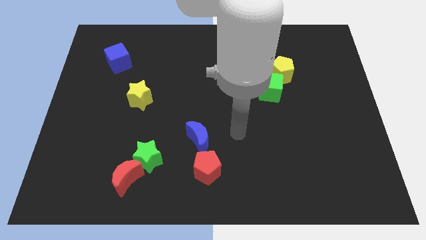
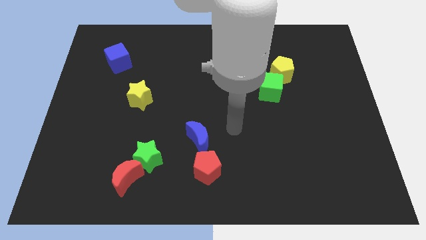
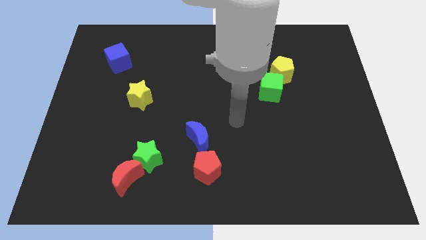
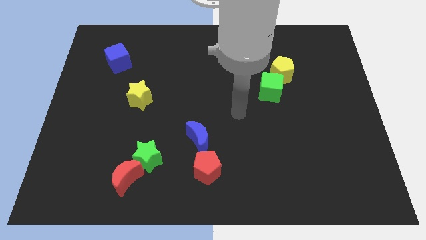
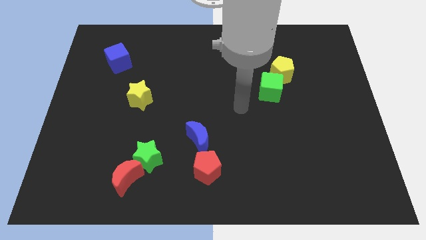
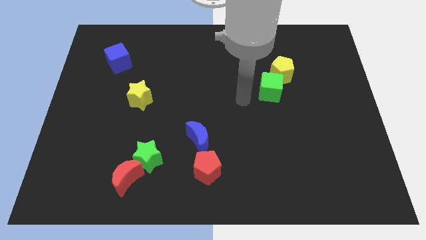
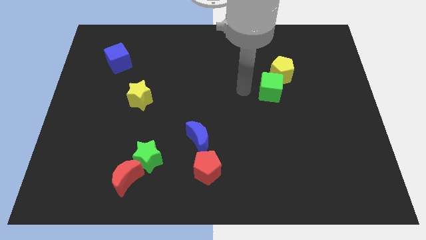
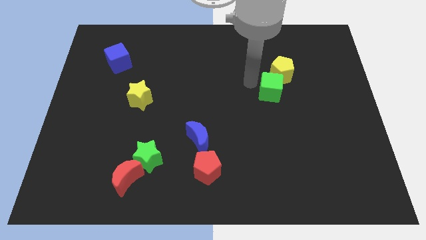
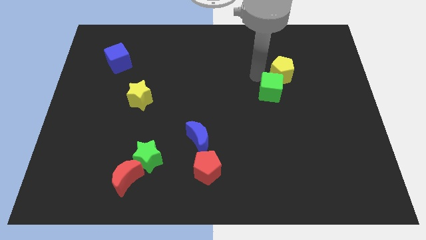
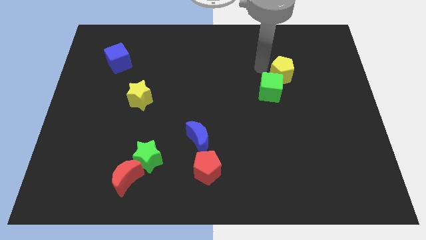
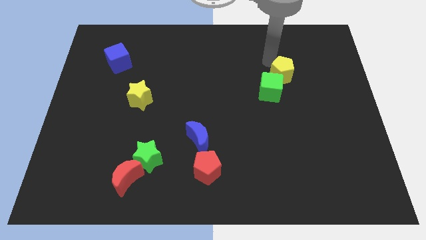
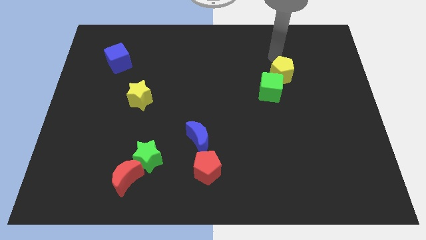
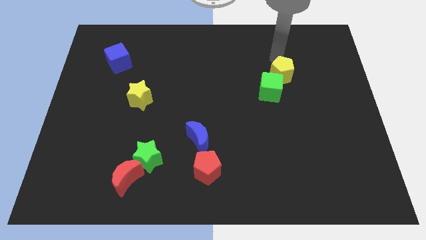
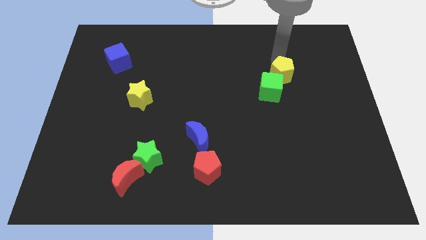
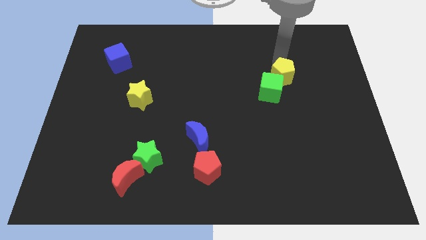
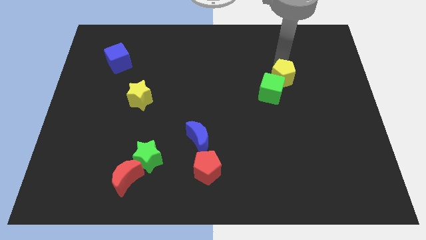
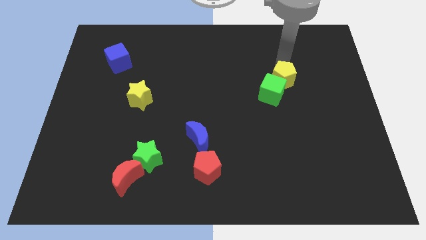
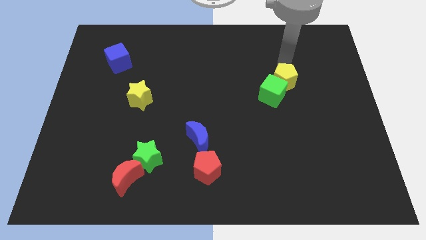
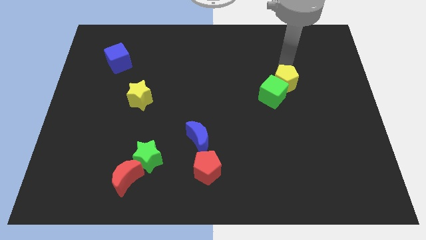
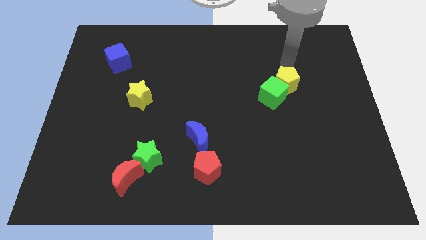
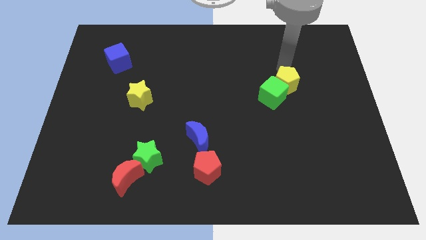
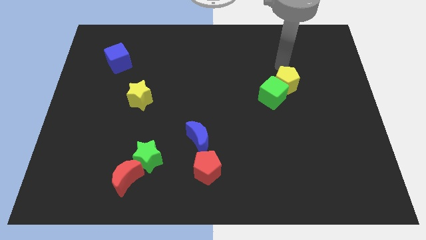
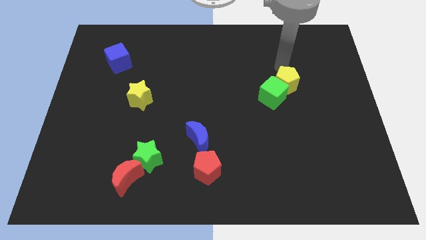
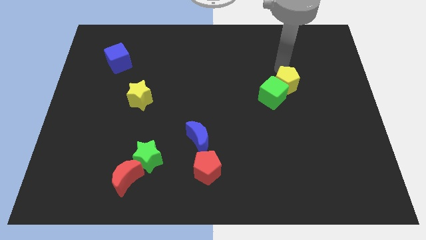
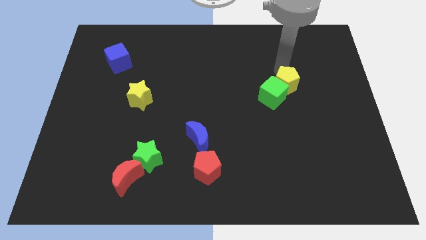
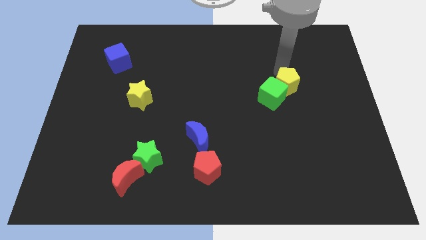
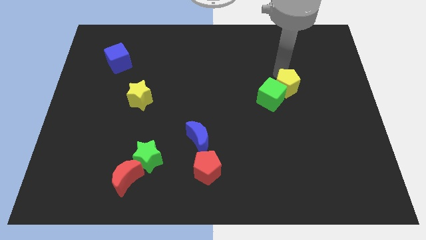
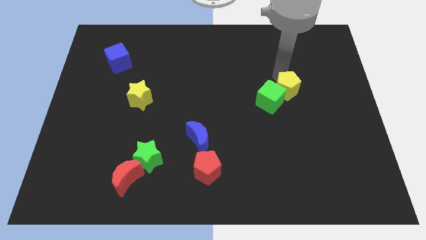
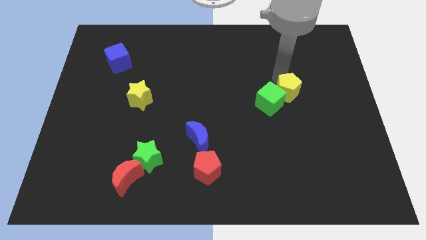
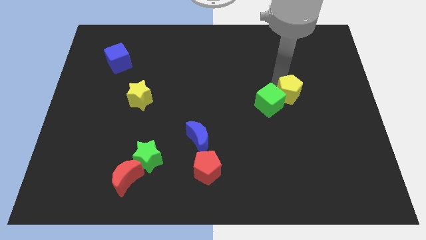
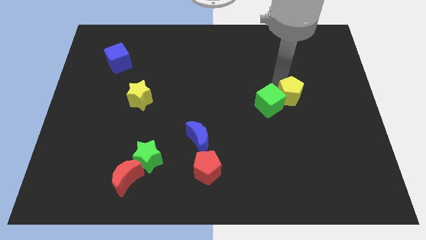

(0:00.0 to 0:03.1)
push the yellow pentagon somewhat down

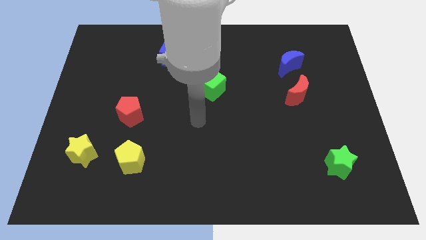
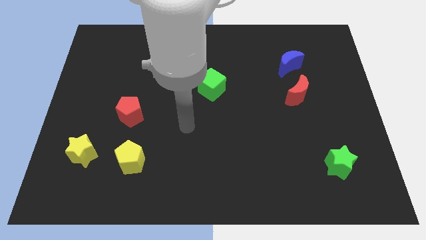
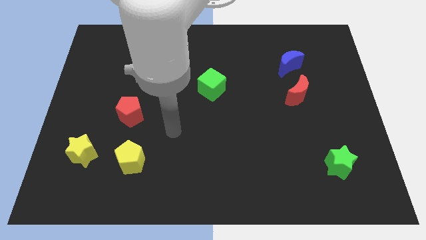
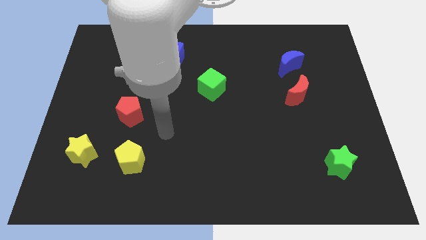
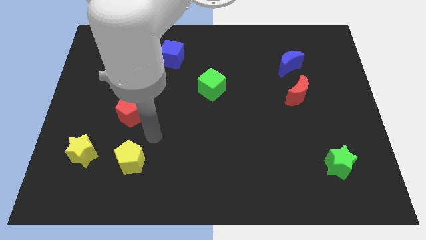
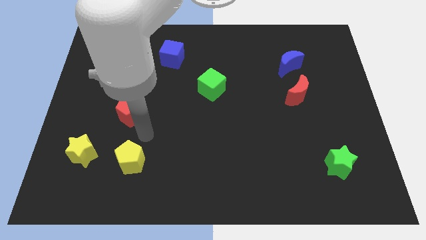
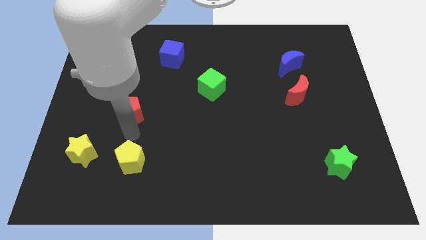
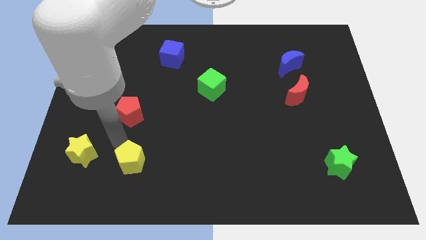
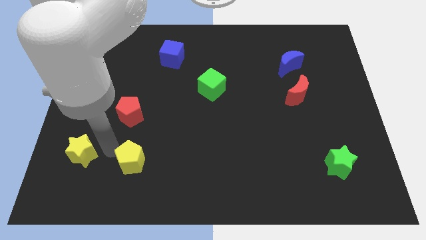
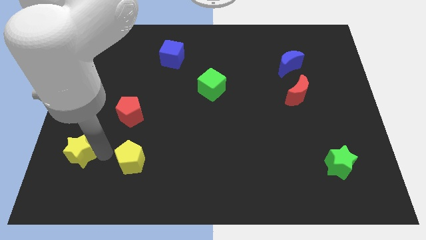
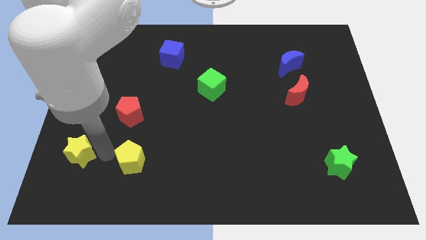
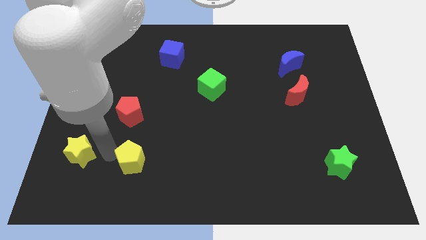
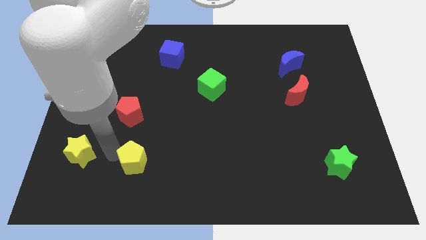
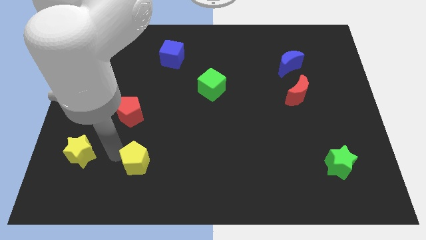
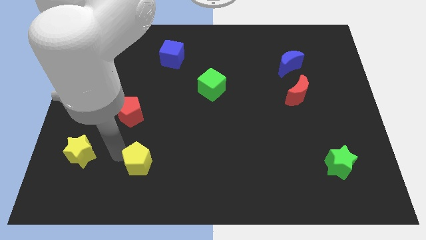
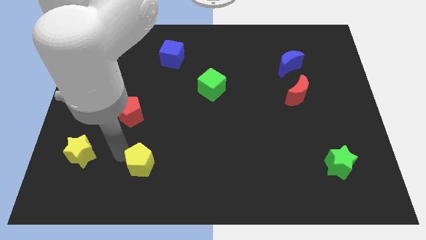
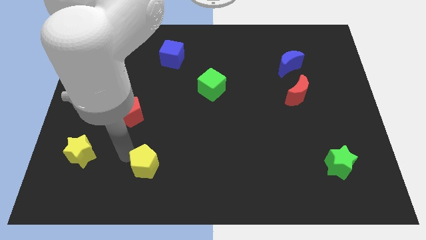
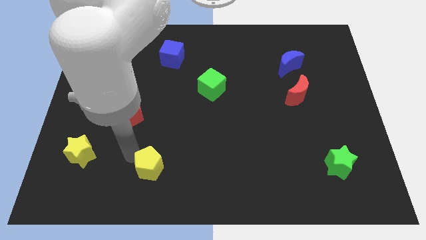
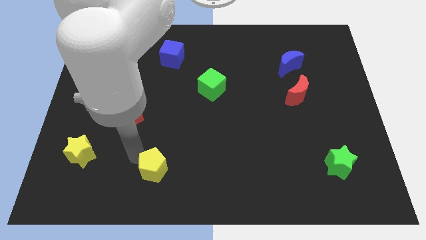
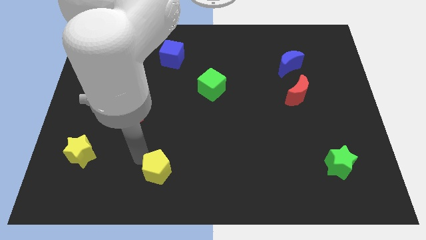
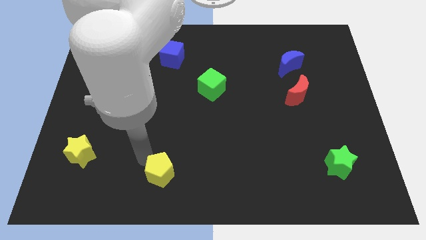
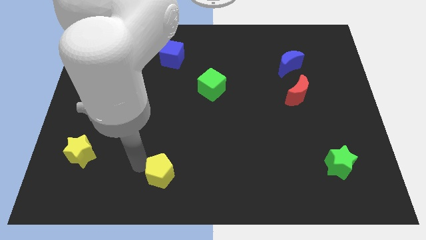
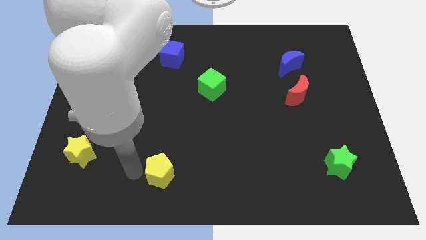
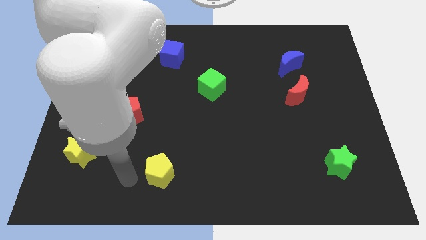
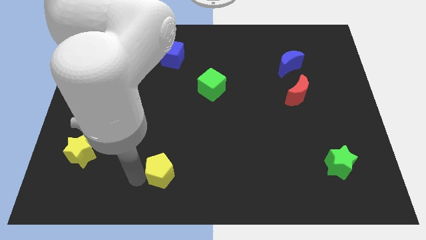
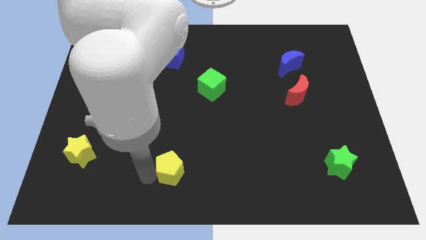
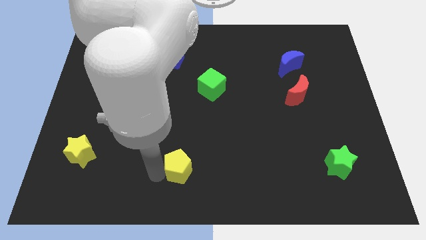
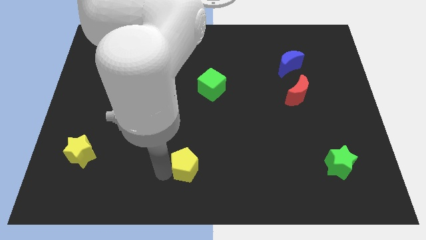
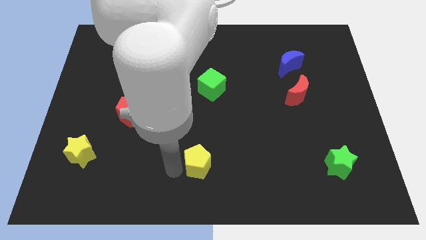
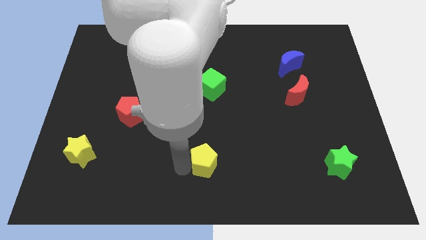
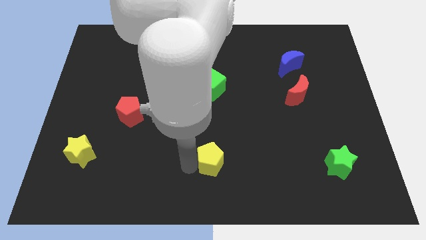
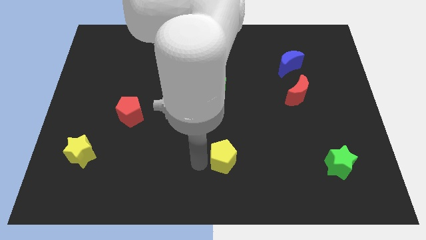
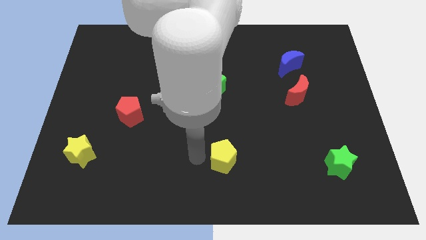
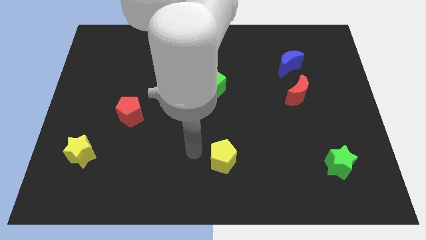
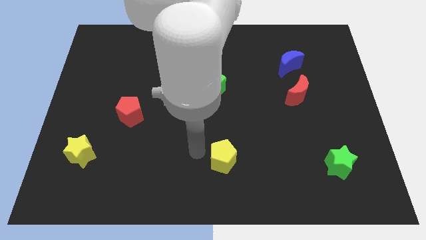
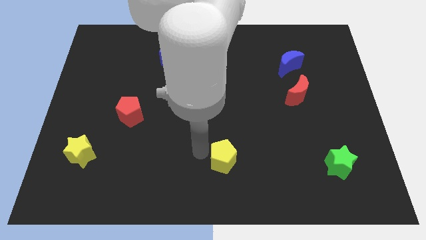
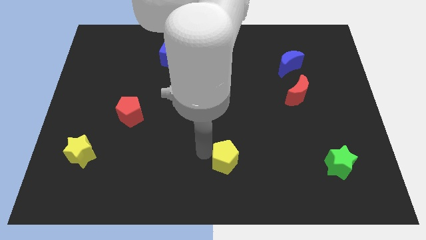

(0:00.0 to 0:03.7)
push the yellow pentagon to the right

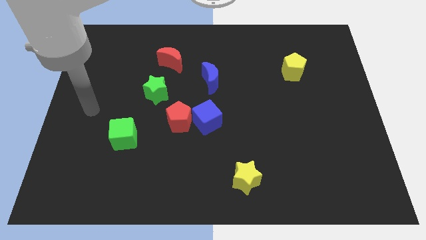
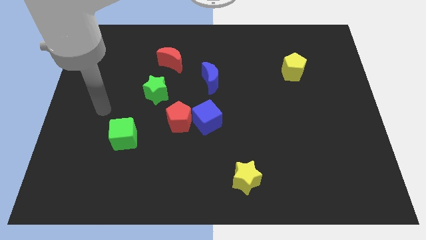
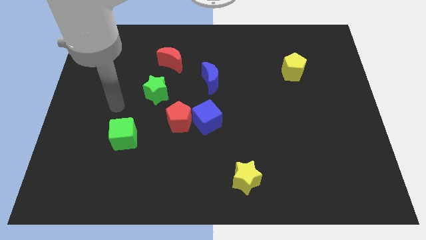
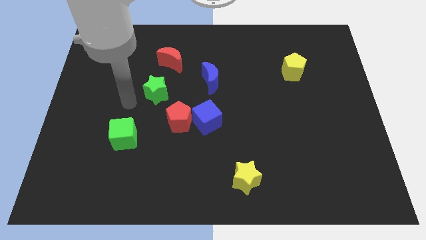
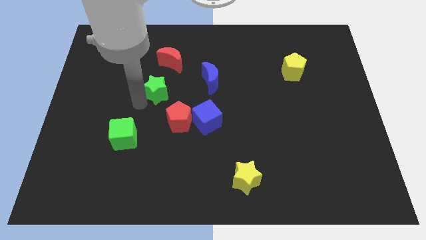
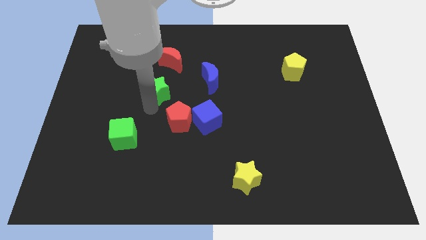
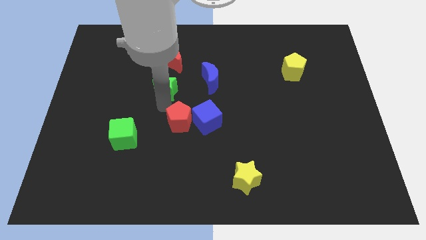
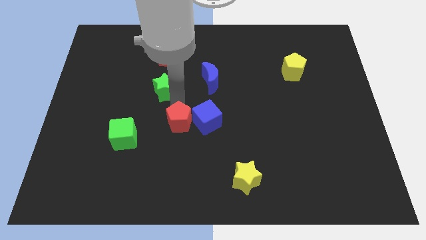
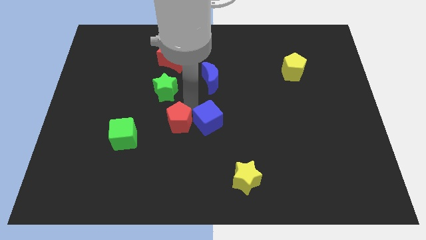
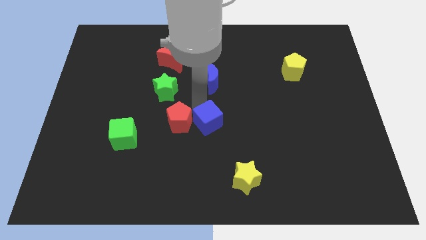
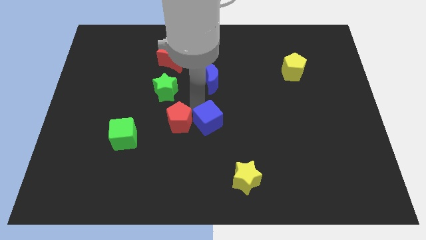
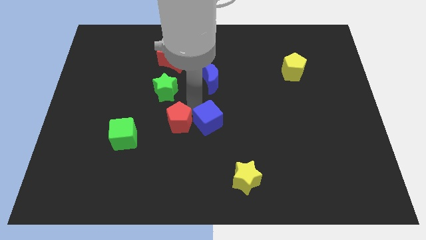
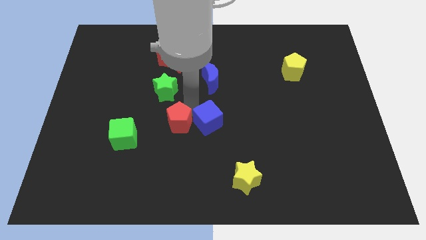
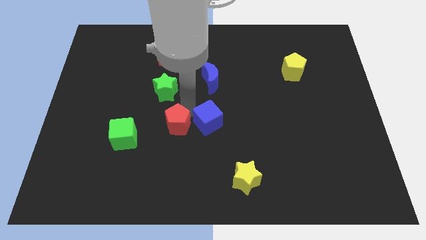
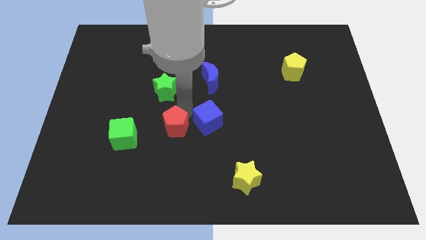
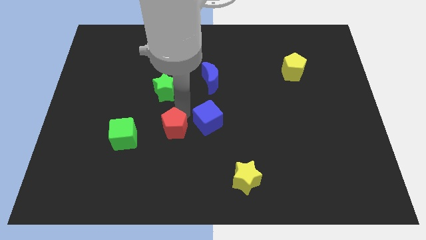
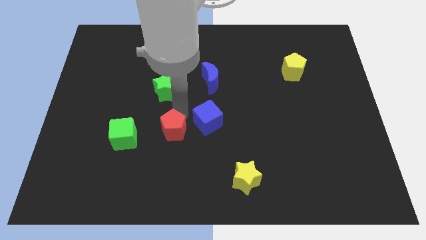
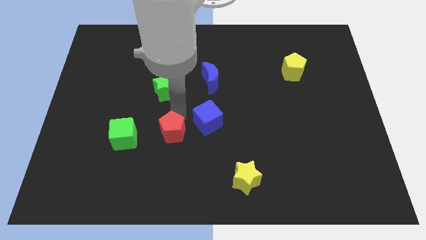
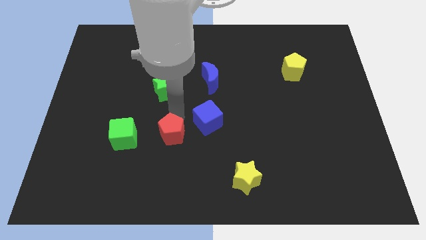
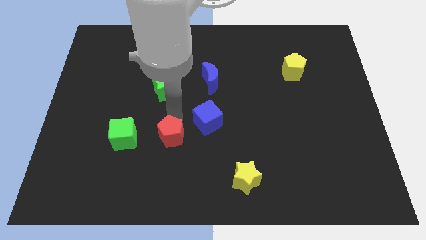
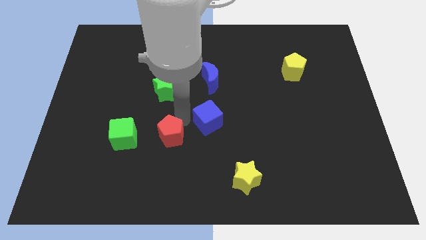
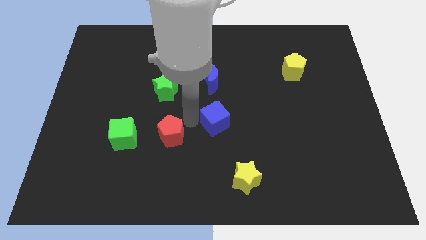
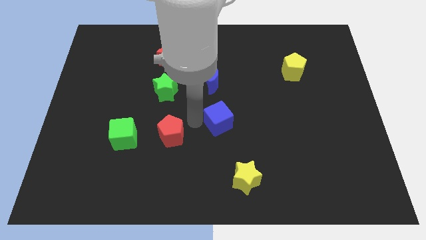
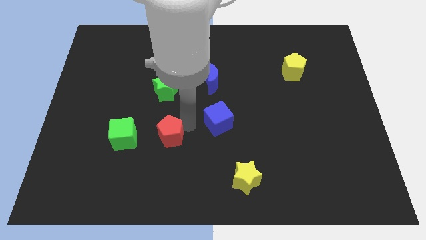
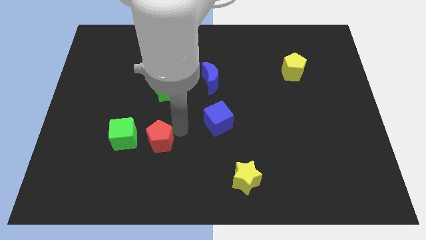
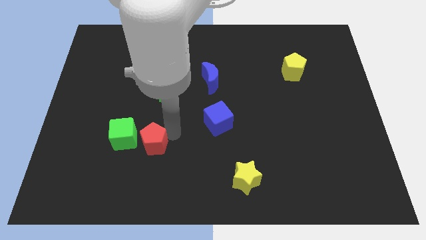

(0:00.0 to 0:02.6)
move the red pentagon down and to the left diagonally a little
